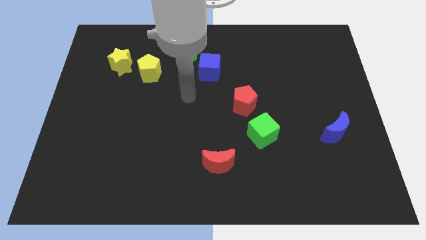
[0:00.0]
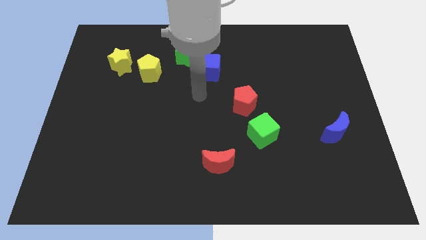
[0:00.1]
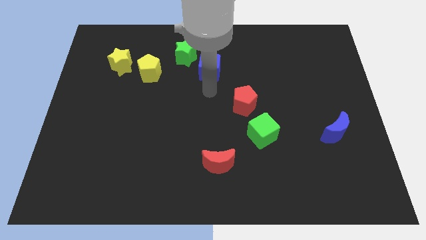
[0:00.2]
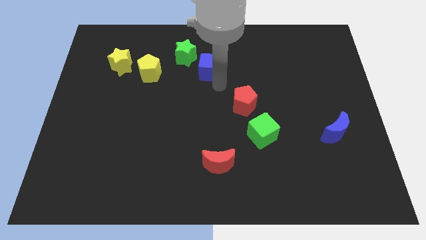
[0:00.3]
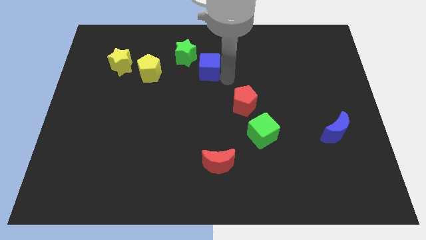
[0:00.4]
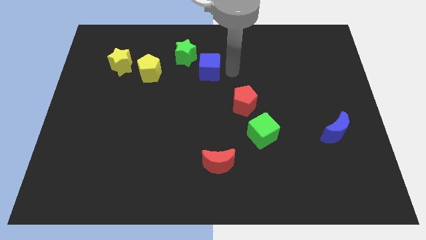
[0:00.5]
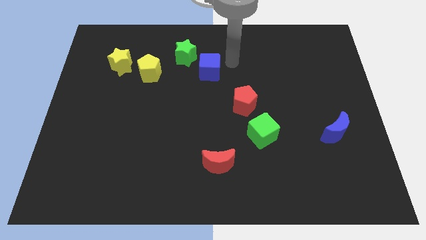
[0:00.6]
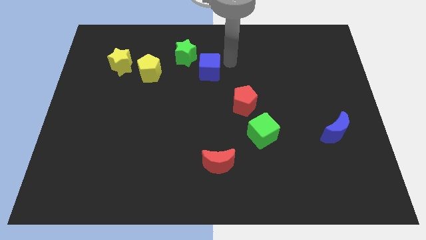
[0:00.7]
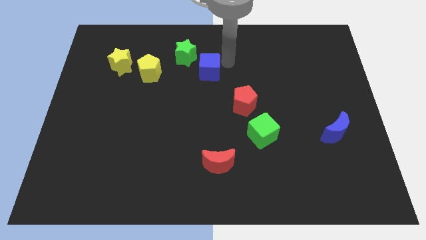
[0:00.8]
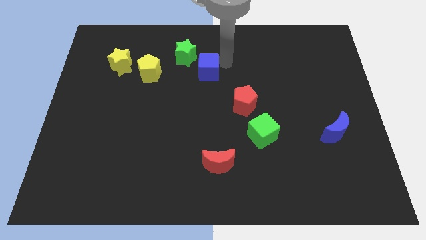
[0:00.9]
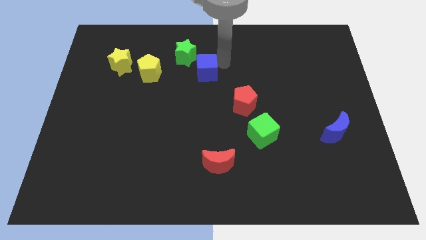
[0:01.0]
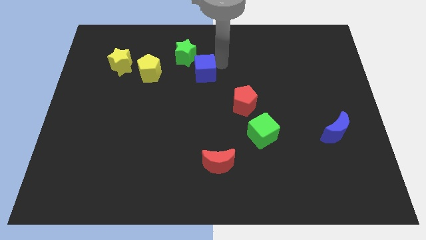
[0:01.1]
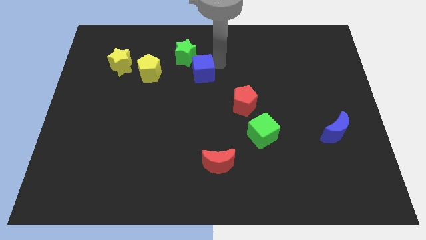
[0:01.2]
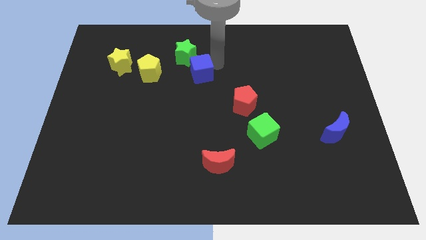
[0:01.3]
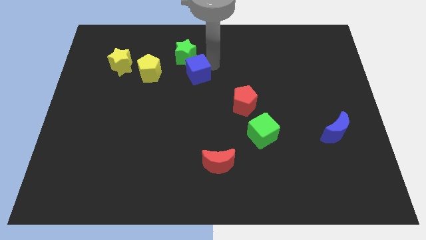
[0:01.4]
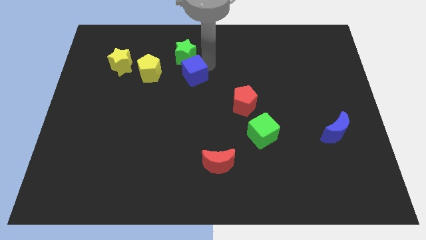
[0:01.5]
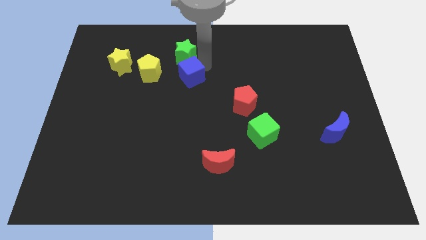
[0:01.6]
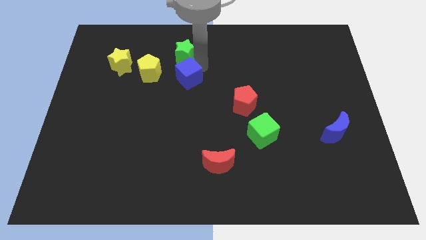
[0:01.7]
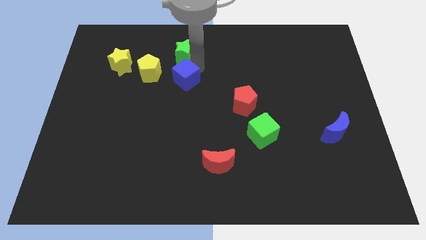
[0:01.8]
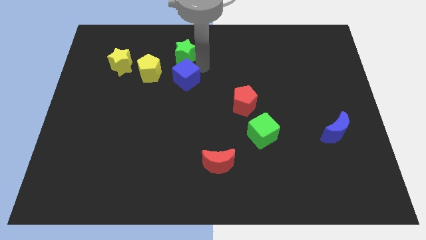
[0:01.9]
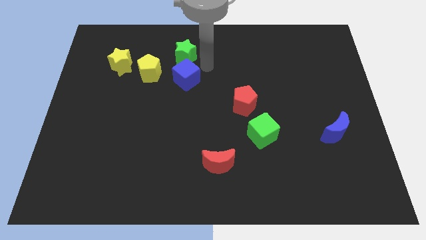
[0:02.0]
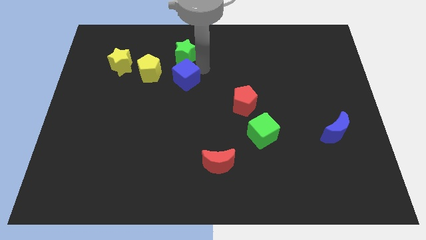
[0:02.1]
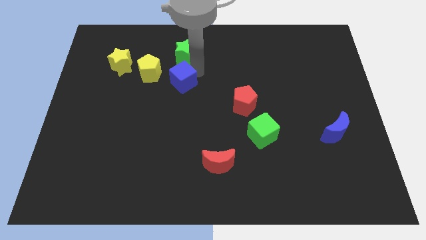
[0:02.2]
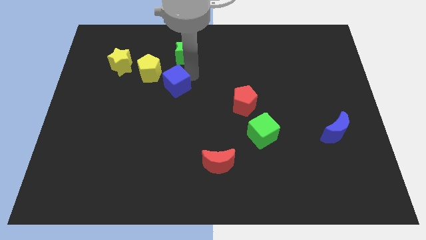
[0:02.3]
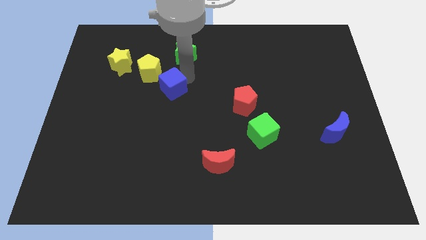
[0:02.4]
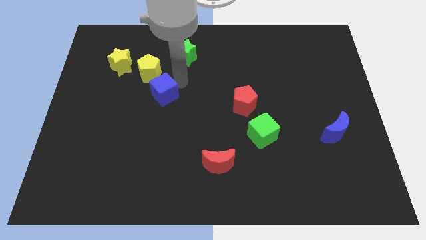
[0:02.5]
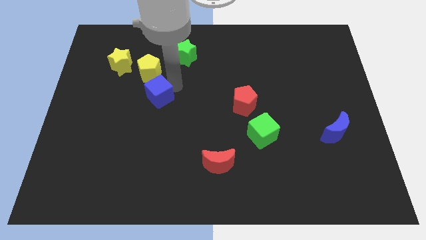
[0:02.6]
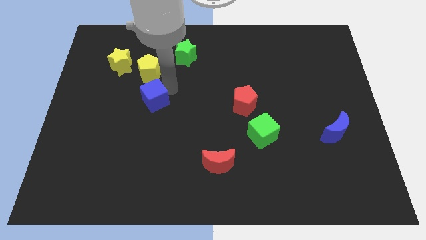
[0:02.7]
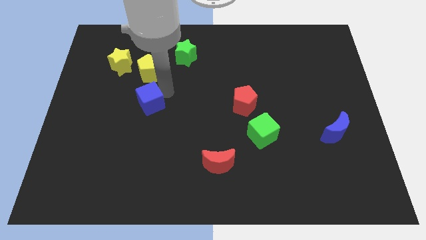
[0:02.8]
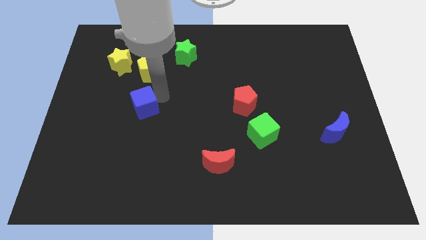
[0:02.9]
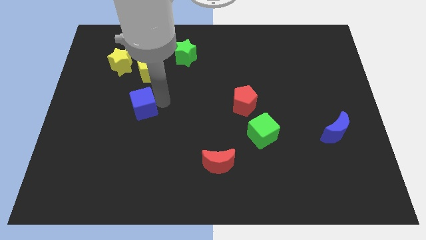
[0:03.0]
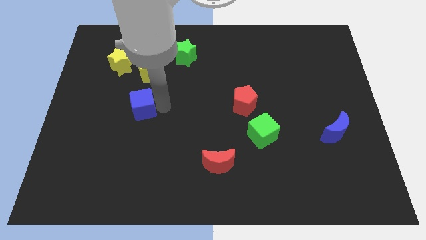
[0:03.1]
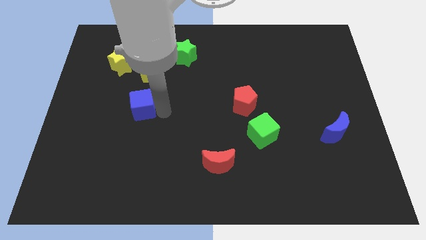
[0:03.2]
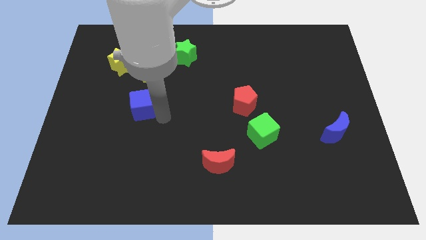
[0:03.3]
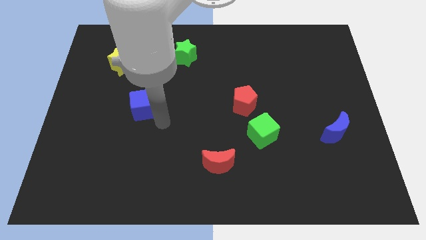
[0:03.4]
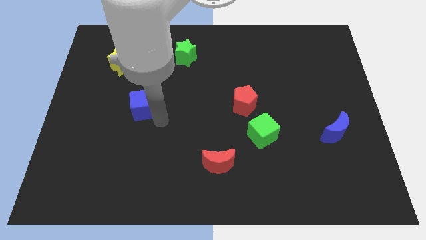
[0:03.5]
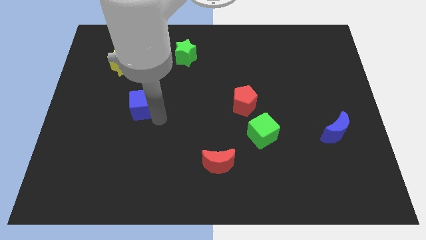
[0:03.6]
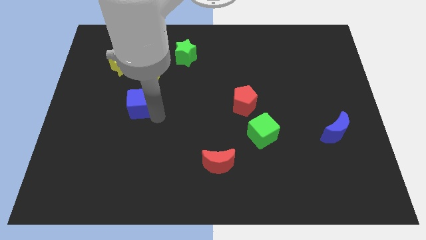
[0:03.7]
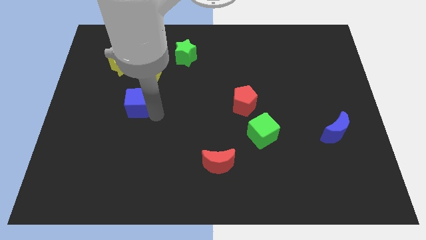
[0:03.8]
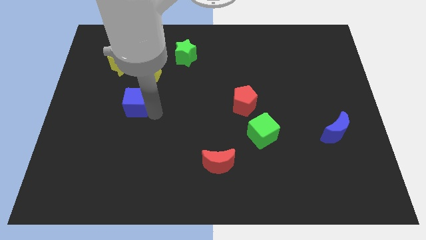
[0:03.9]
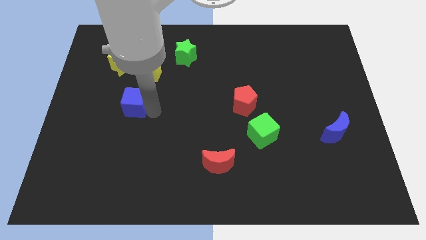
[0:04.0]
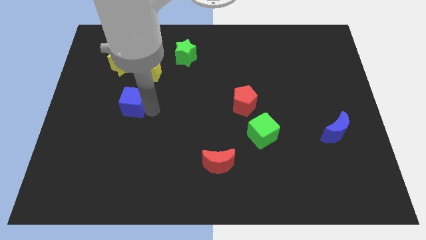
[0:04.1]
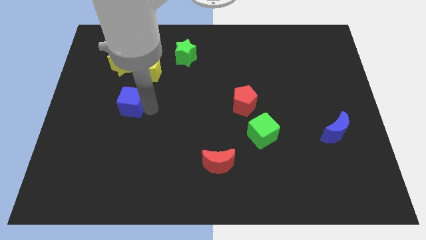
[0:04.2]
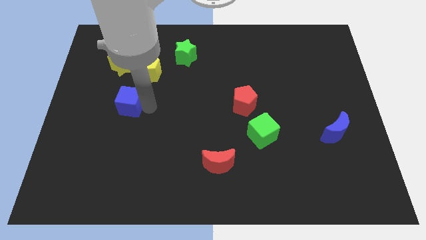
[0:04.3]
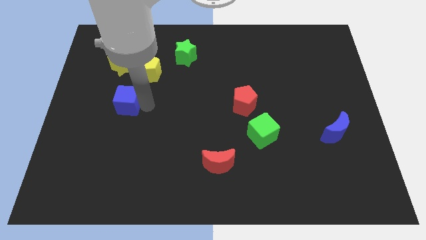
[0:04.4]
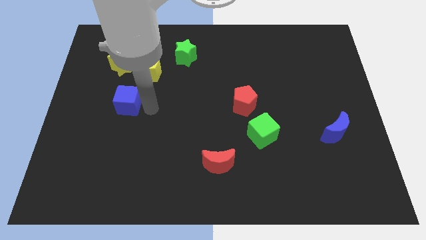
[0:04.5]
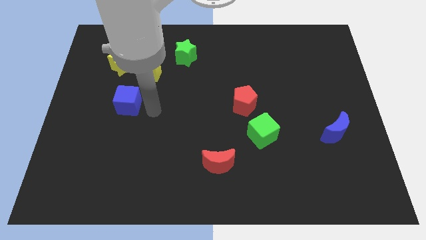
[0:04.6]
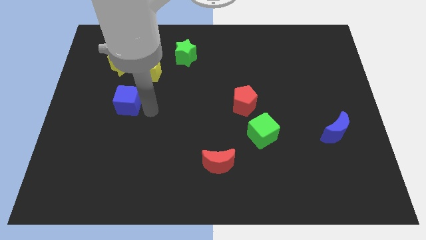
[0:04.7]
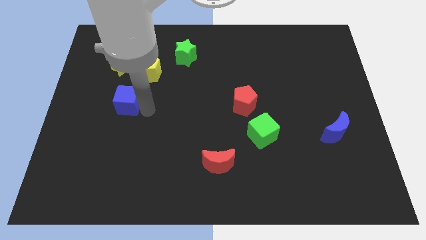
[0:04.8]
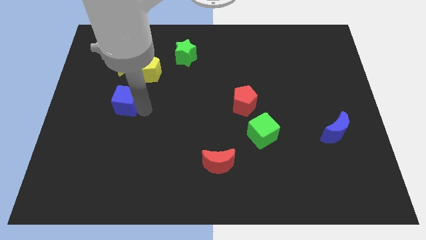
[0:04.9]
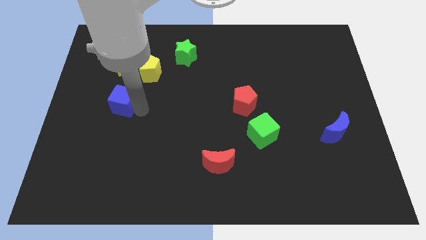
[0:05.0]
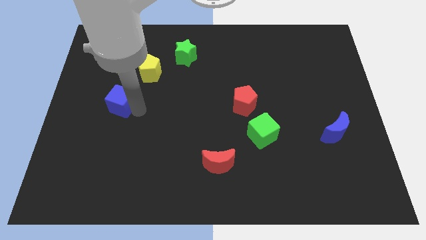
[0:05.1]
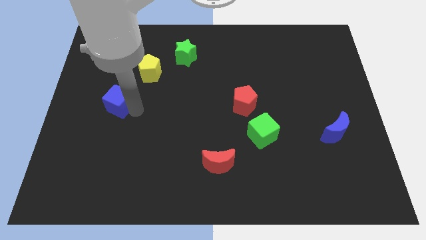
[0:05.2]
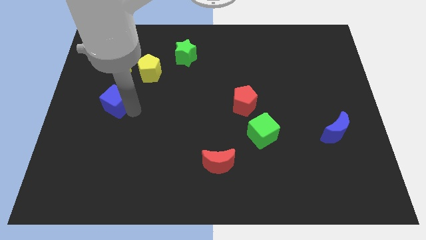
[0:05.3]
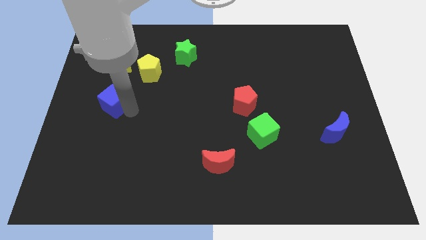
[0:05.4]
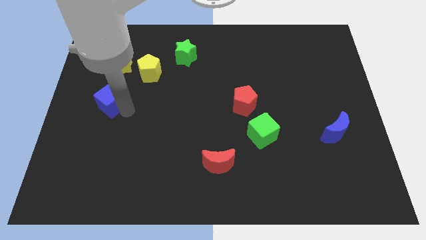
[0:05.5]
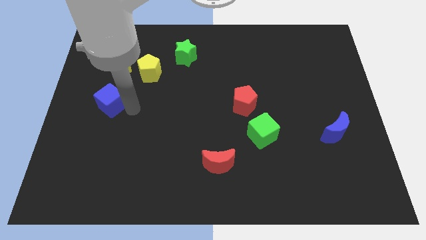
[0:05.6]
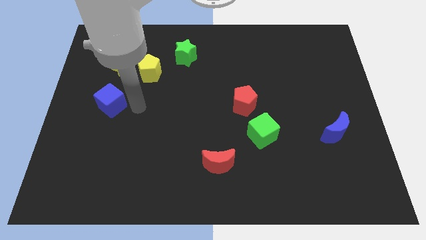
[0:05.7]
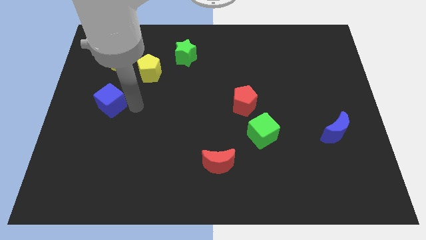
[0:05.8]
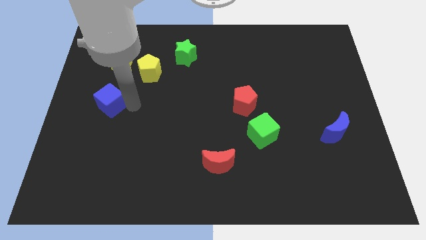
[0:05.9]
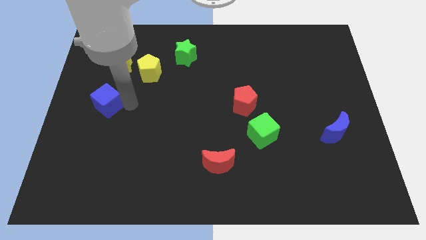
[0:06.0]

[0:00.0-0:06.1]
move the blue cube to the left side
